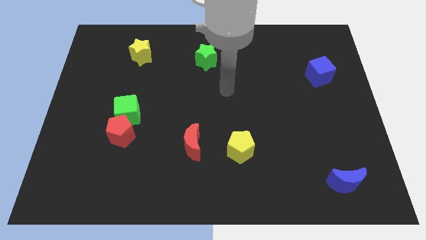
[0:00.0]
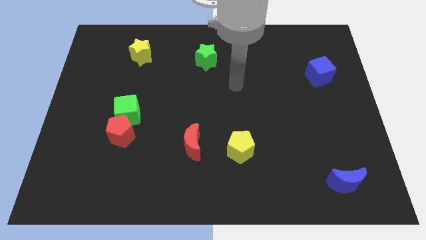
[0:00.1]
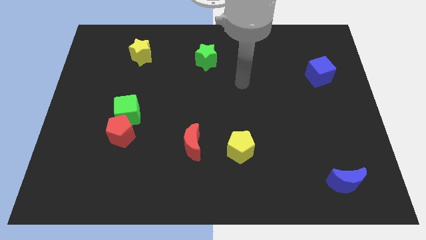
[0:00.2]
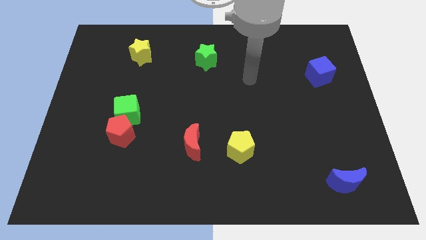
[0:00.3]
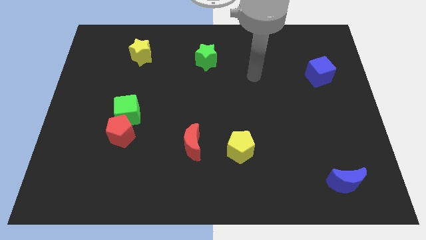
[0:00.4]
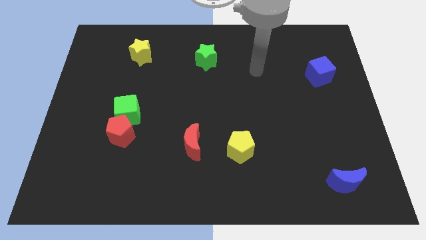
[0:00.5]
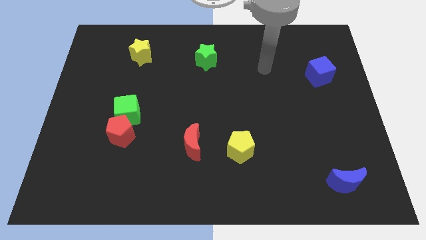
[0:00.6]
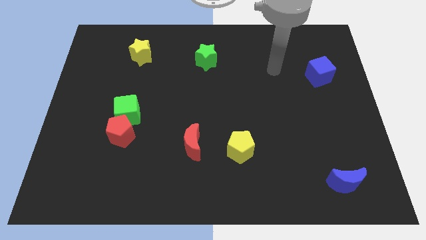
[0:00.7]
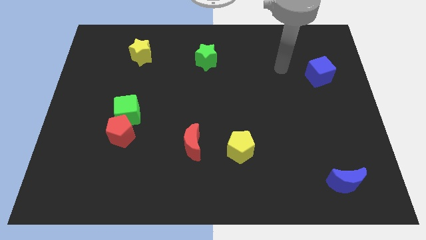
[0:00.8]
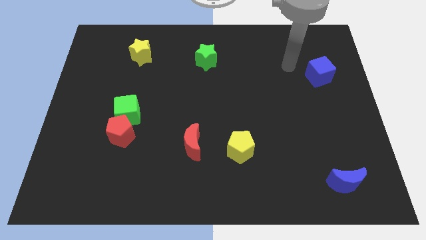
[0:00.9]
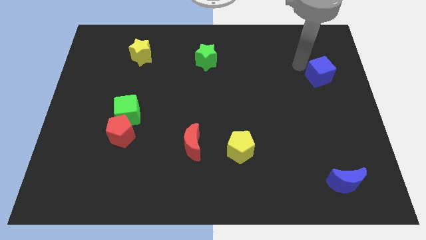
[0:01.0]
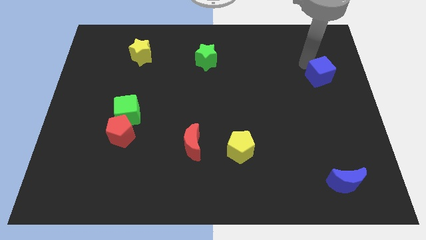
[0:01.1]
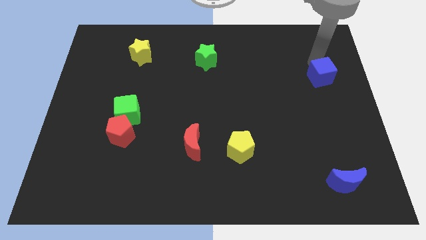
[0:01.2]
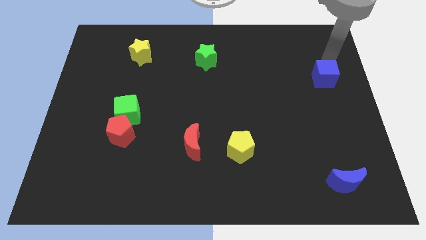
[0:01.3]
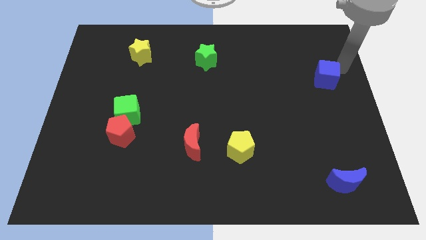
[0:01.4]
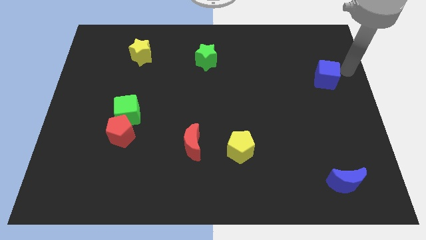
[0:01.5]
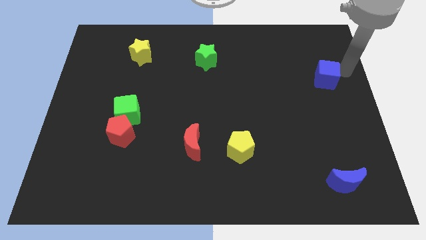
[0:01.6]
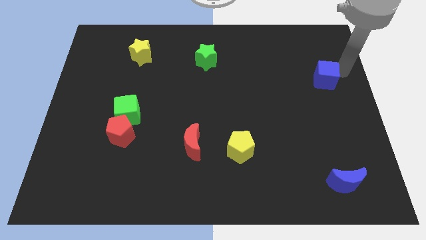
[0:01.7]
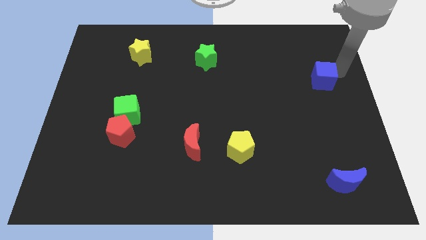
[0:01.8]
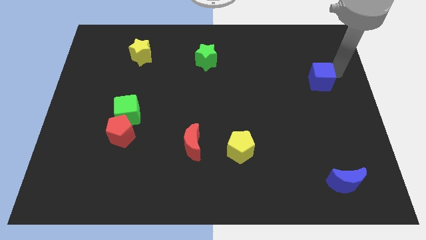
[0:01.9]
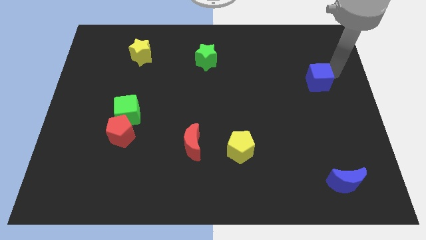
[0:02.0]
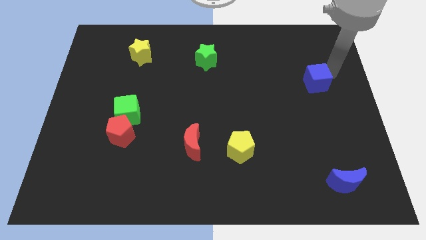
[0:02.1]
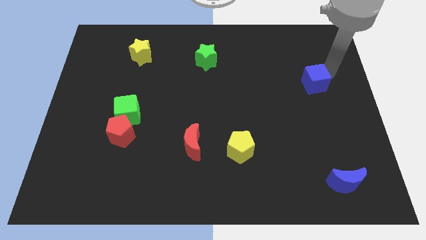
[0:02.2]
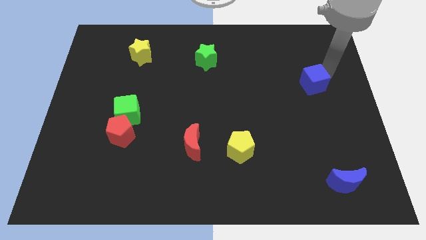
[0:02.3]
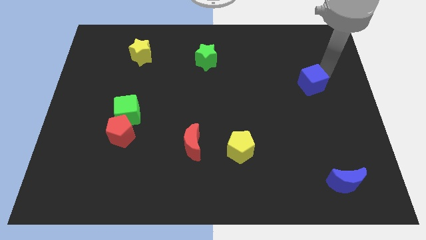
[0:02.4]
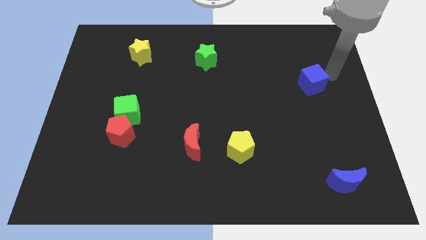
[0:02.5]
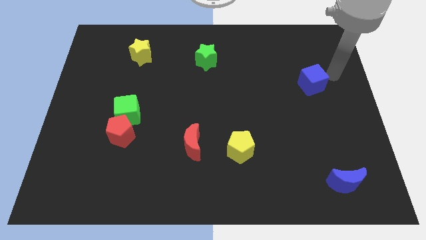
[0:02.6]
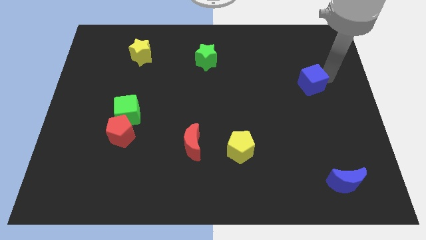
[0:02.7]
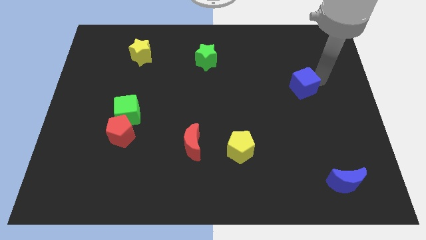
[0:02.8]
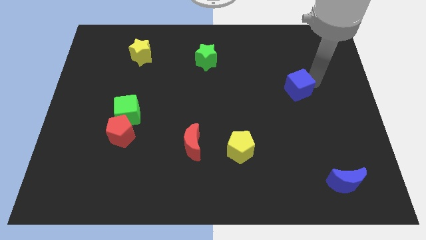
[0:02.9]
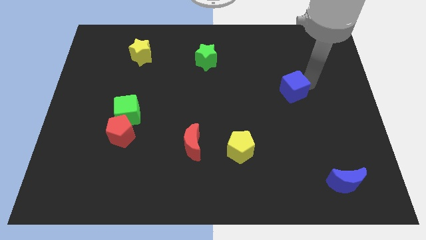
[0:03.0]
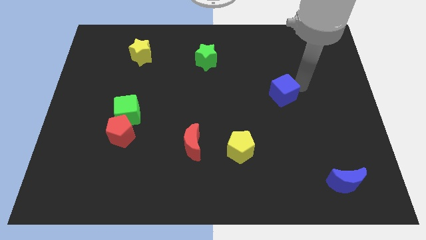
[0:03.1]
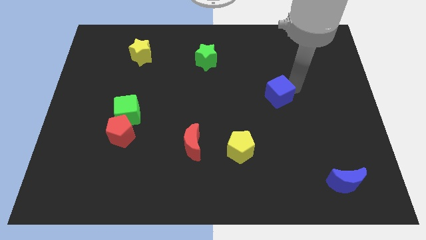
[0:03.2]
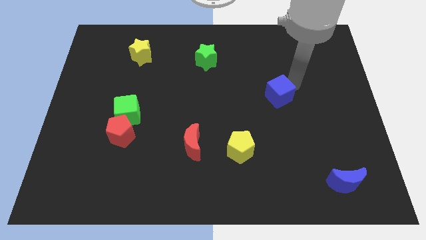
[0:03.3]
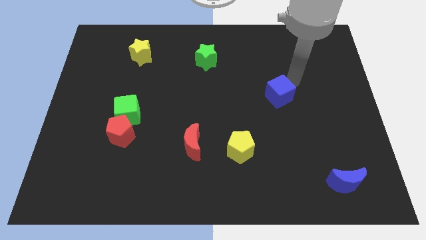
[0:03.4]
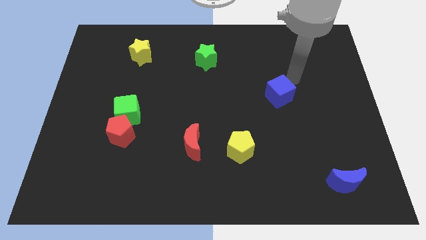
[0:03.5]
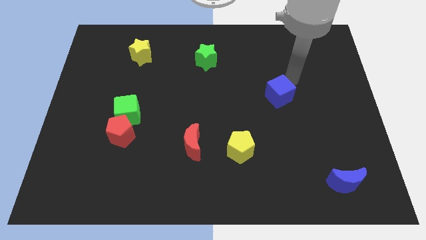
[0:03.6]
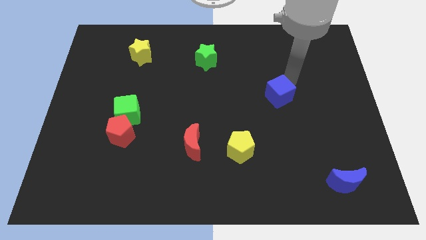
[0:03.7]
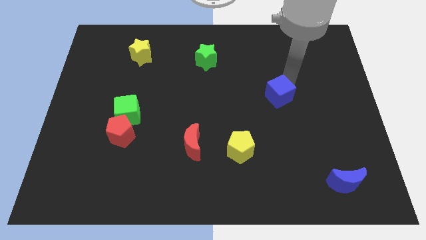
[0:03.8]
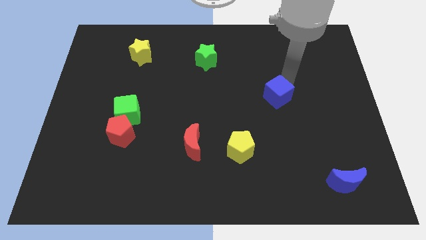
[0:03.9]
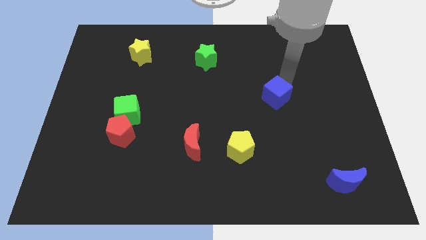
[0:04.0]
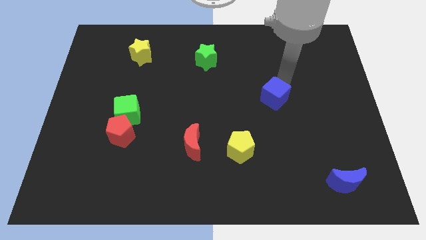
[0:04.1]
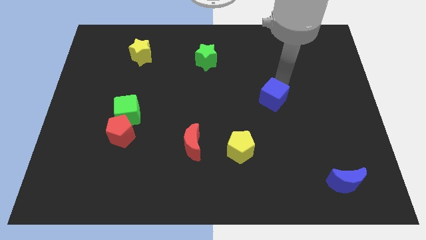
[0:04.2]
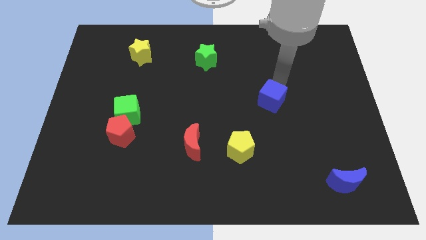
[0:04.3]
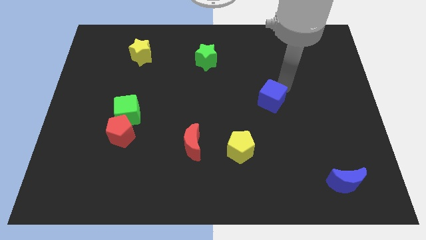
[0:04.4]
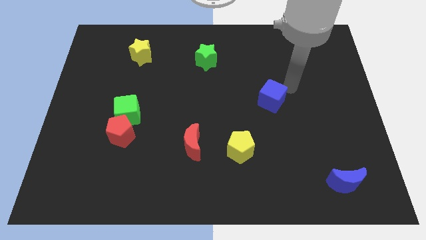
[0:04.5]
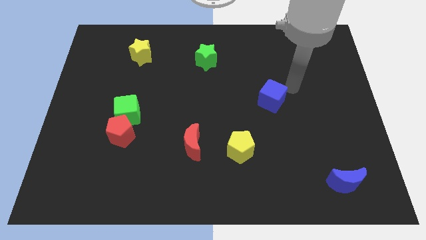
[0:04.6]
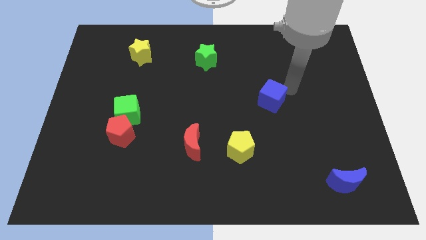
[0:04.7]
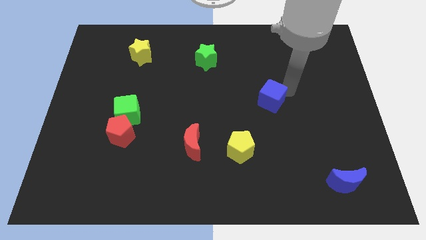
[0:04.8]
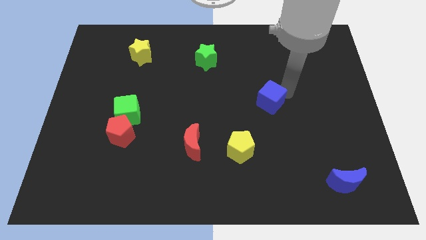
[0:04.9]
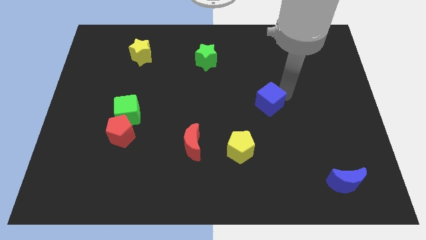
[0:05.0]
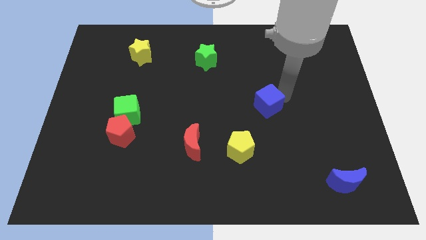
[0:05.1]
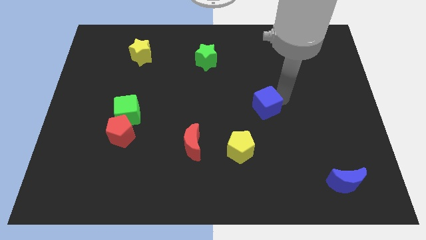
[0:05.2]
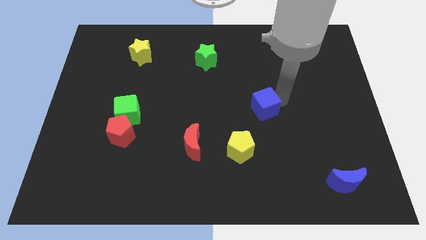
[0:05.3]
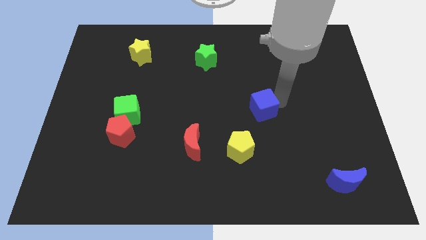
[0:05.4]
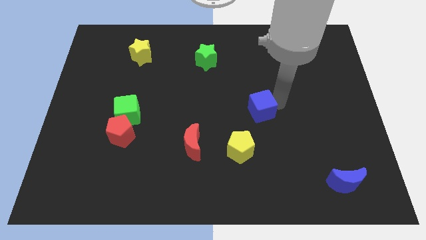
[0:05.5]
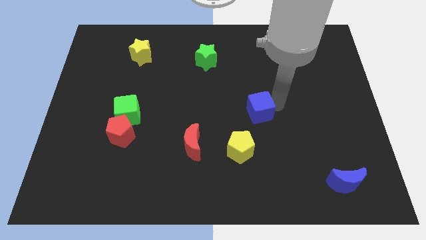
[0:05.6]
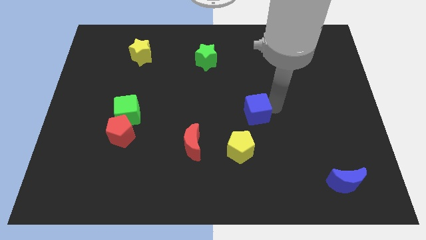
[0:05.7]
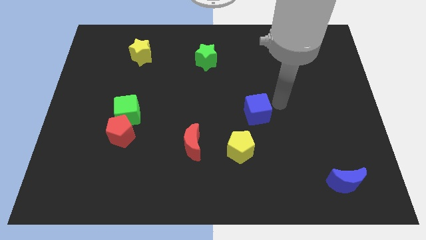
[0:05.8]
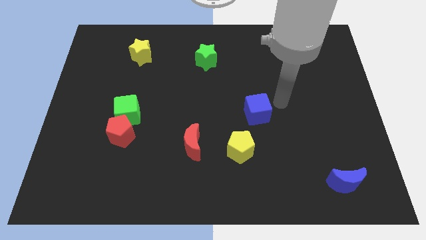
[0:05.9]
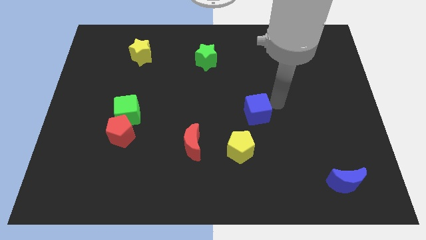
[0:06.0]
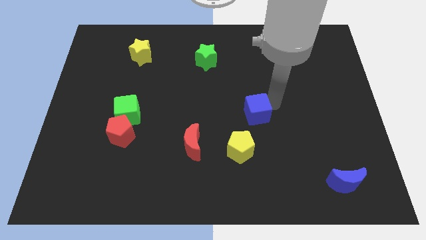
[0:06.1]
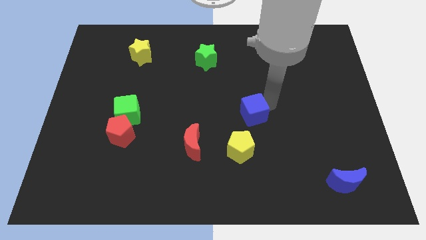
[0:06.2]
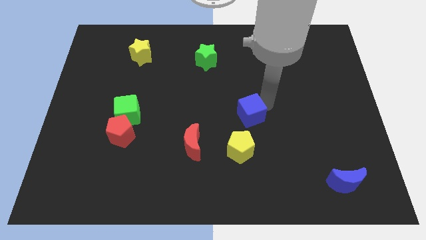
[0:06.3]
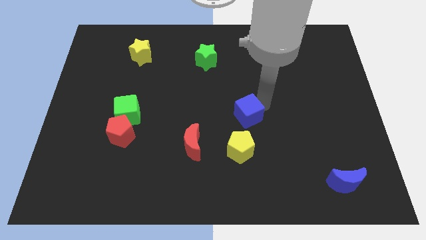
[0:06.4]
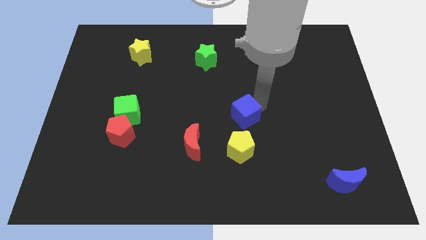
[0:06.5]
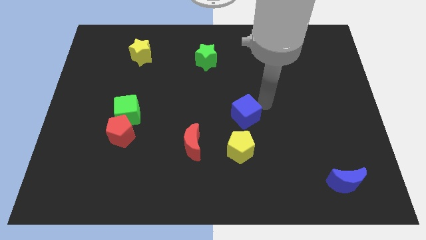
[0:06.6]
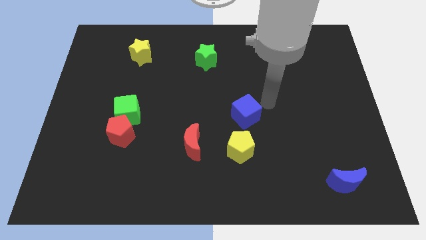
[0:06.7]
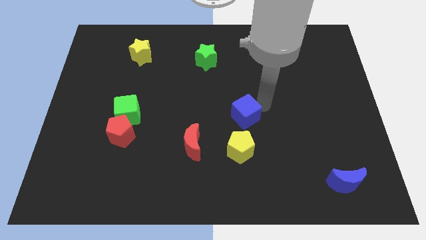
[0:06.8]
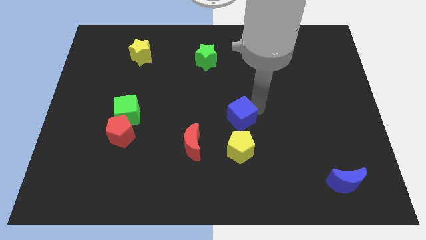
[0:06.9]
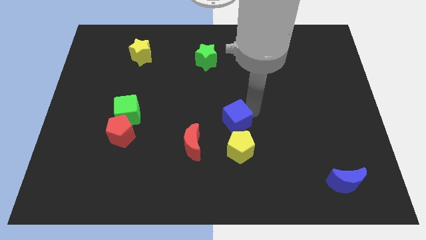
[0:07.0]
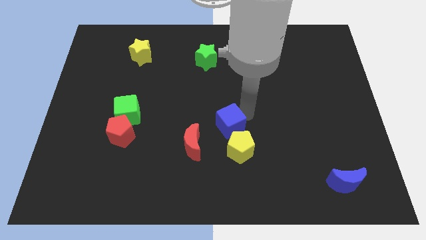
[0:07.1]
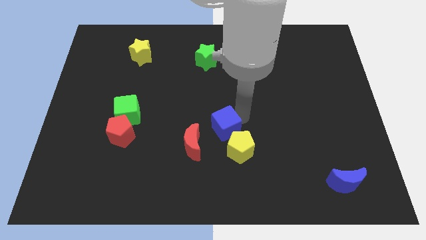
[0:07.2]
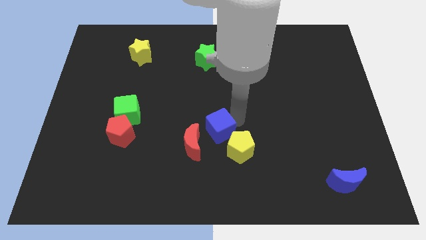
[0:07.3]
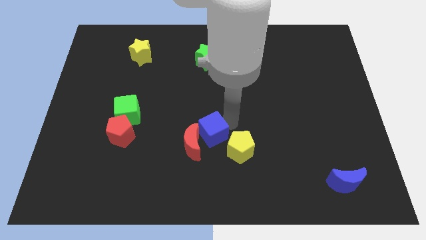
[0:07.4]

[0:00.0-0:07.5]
move the blue cube close to the red moon
